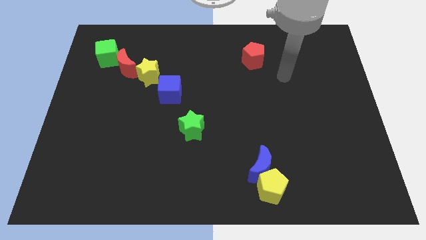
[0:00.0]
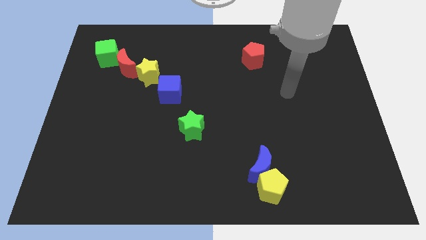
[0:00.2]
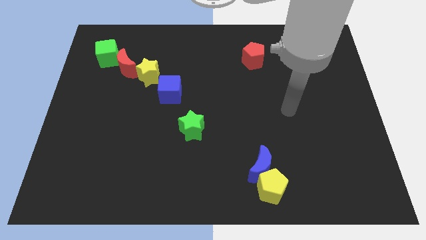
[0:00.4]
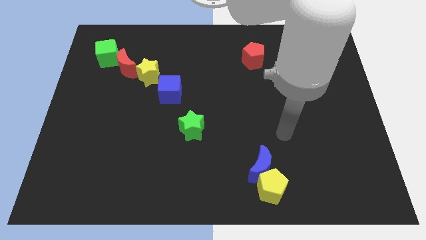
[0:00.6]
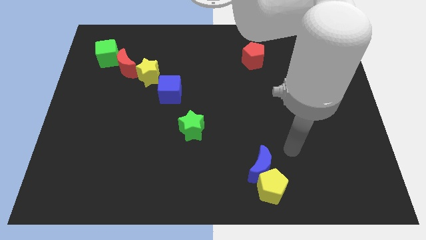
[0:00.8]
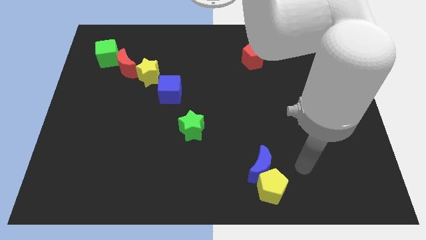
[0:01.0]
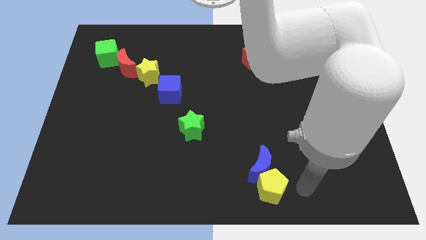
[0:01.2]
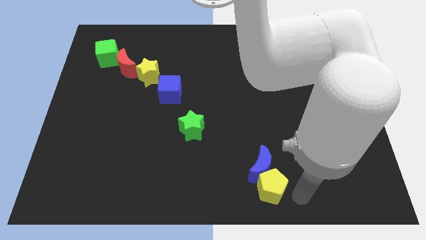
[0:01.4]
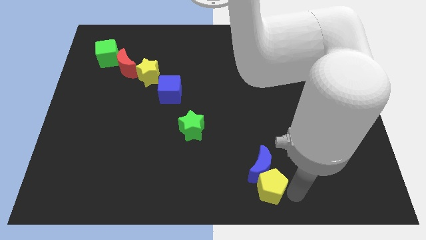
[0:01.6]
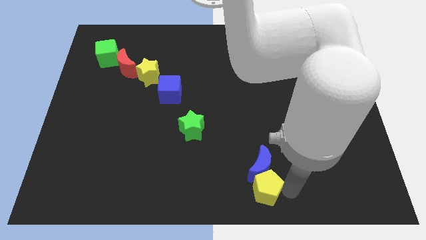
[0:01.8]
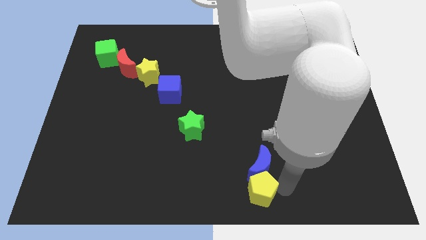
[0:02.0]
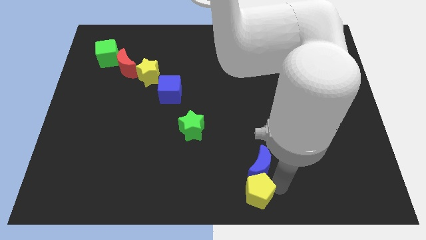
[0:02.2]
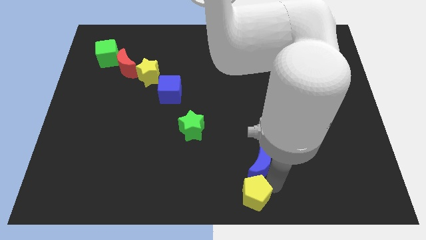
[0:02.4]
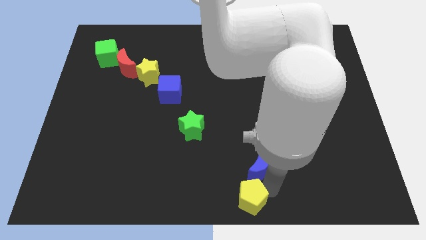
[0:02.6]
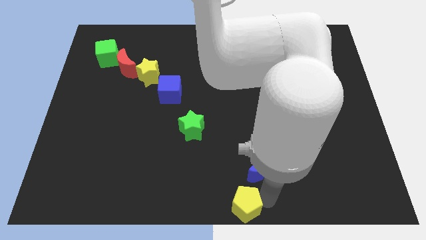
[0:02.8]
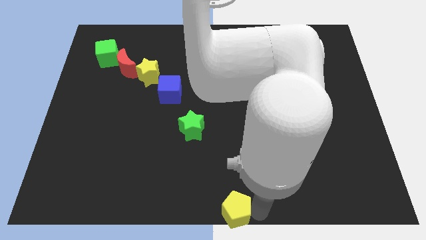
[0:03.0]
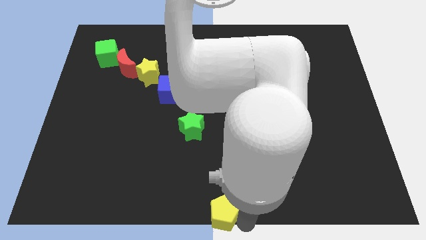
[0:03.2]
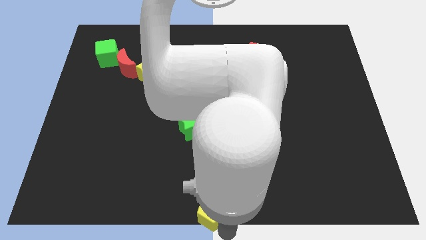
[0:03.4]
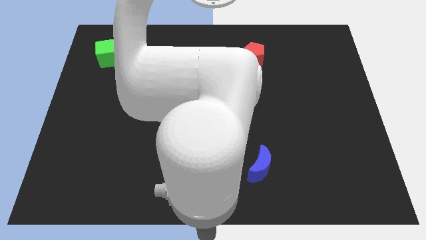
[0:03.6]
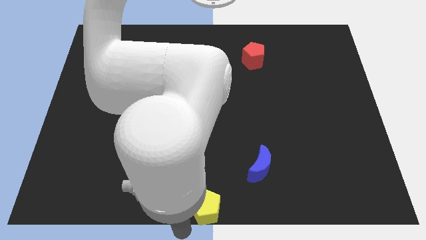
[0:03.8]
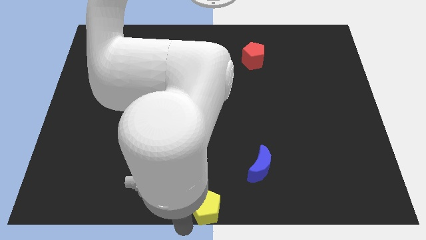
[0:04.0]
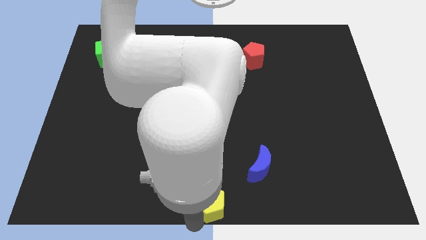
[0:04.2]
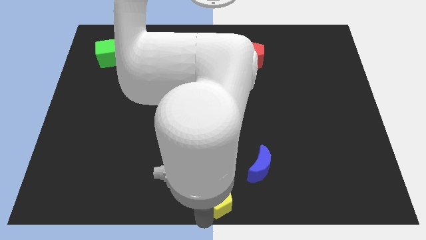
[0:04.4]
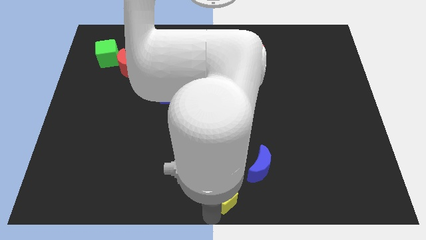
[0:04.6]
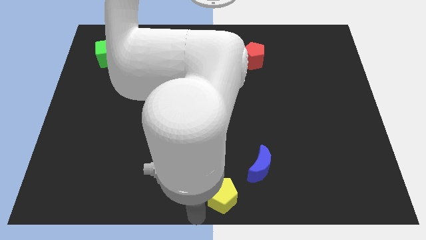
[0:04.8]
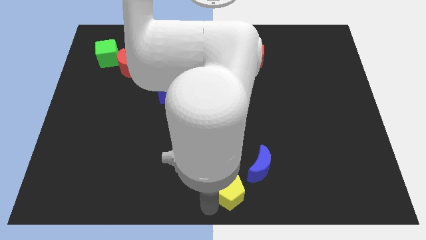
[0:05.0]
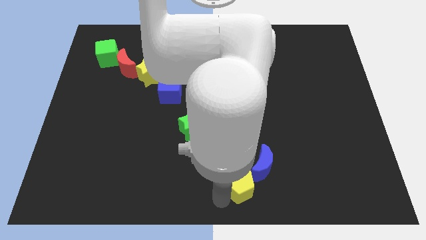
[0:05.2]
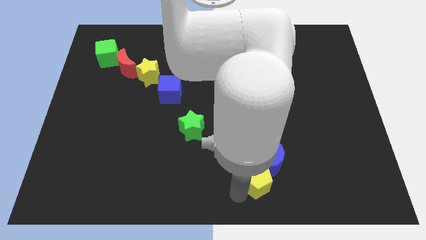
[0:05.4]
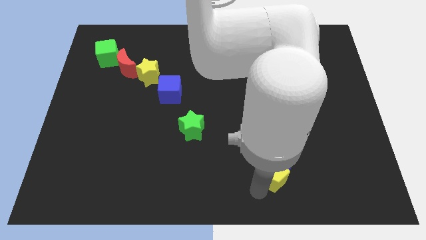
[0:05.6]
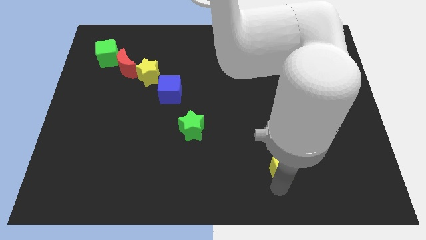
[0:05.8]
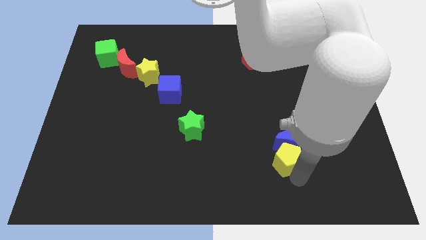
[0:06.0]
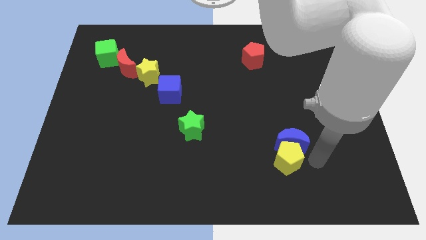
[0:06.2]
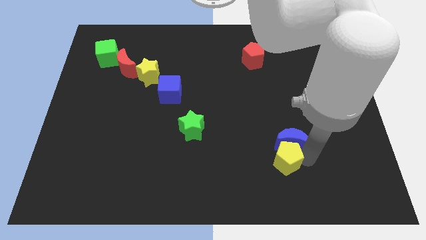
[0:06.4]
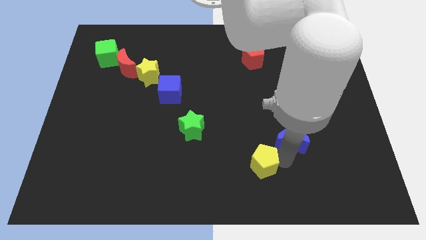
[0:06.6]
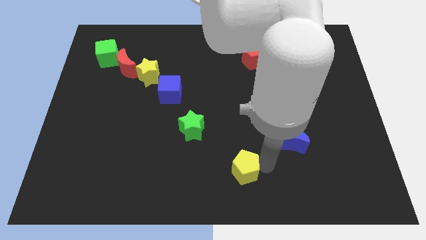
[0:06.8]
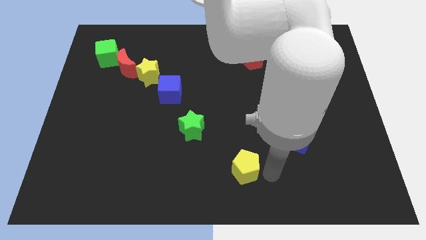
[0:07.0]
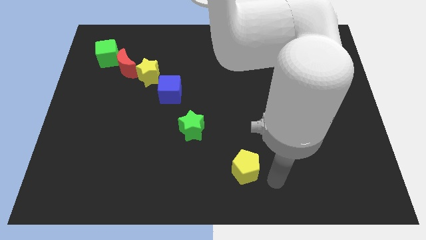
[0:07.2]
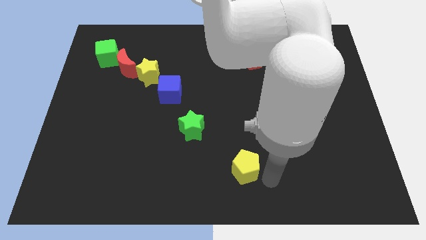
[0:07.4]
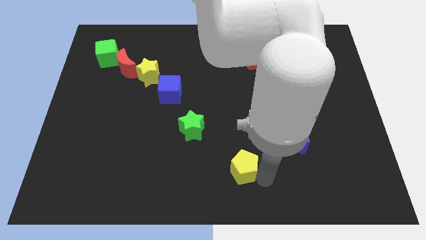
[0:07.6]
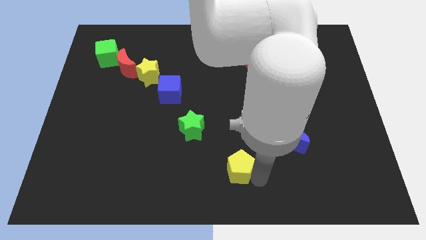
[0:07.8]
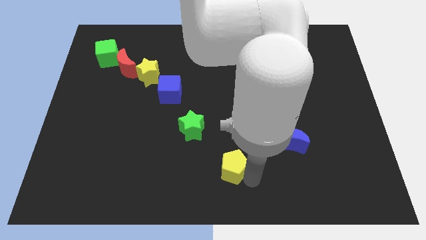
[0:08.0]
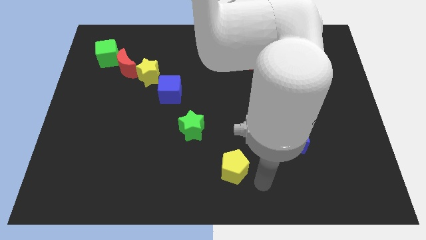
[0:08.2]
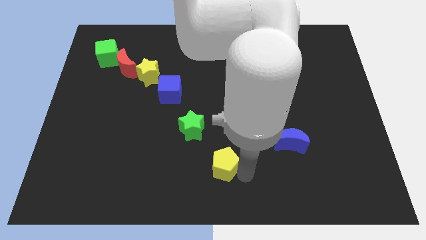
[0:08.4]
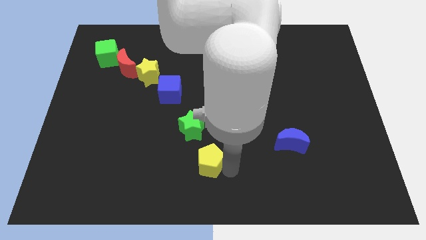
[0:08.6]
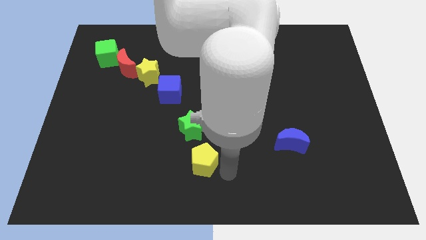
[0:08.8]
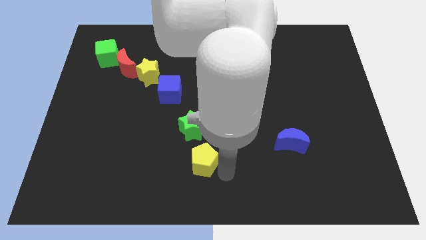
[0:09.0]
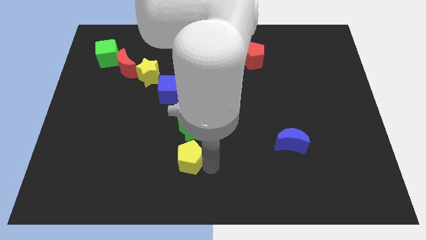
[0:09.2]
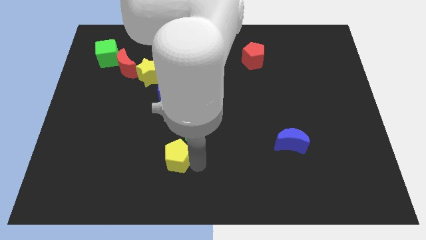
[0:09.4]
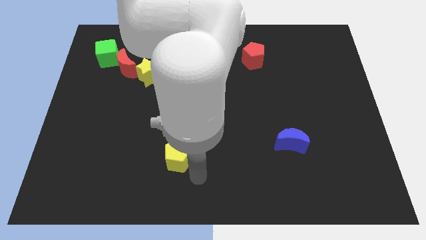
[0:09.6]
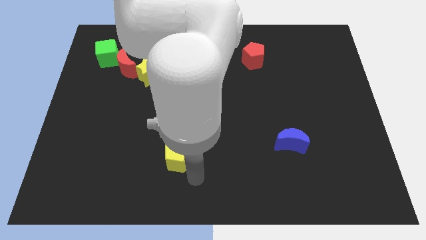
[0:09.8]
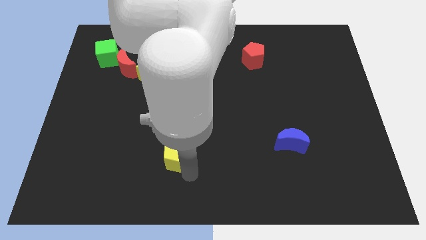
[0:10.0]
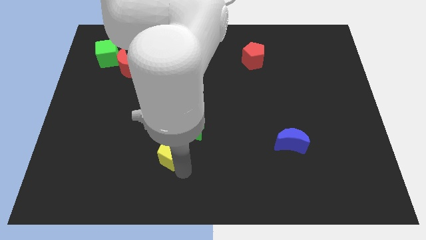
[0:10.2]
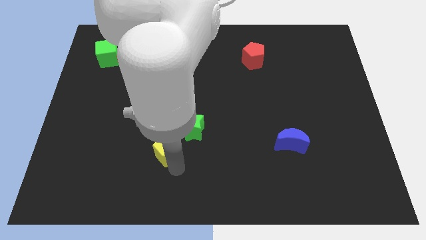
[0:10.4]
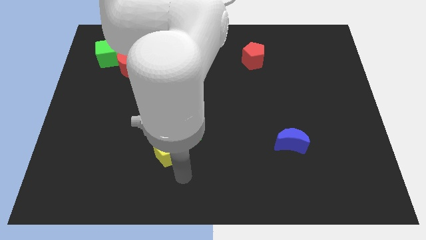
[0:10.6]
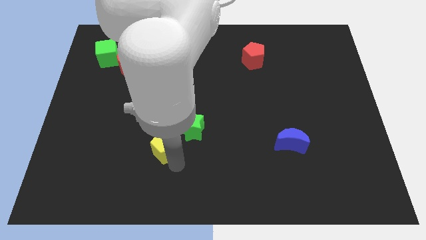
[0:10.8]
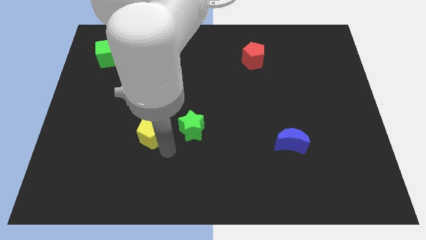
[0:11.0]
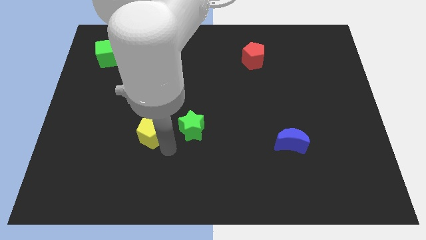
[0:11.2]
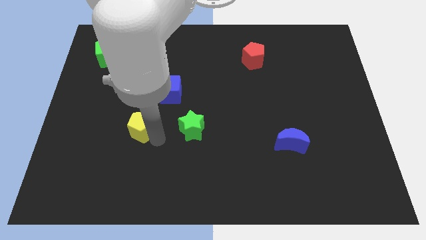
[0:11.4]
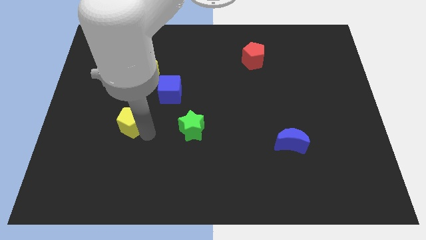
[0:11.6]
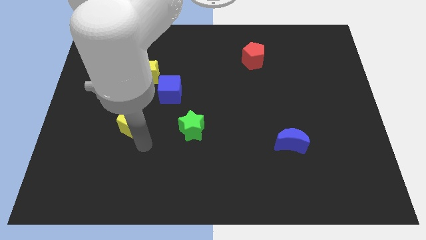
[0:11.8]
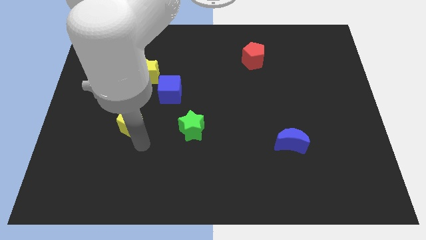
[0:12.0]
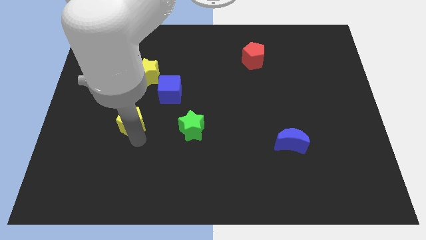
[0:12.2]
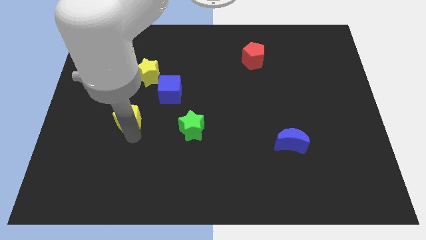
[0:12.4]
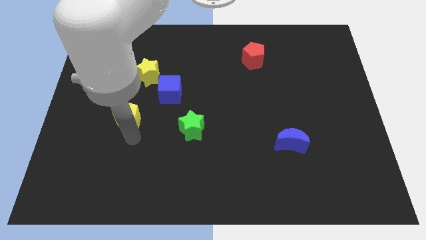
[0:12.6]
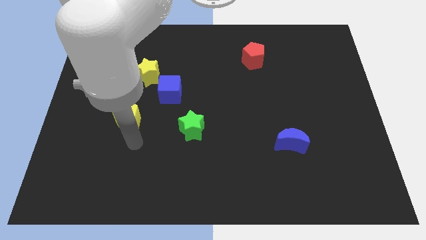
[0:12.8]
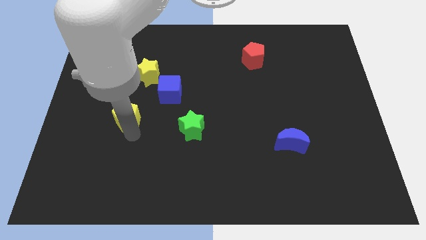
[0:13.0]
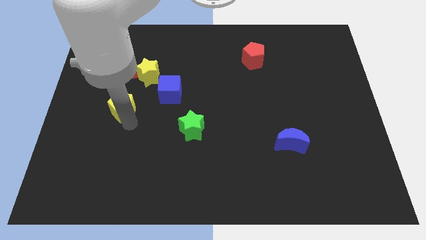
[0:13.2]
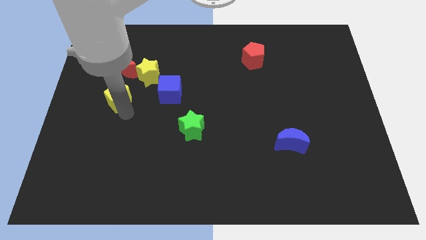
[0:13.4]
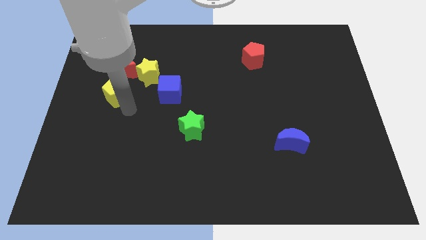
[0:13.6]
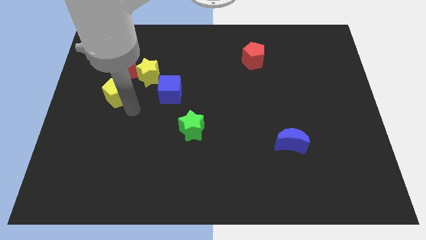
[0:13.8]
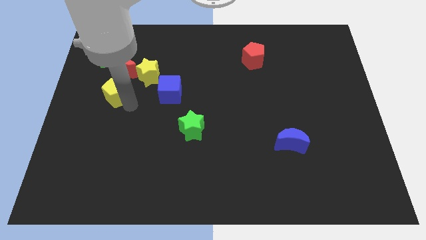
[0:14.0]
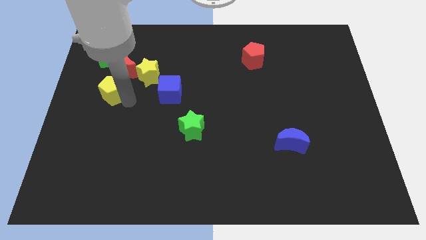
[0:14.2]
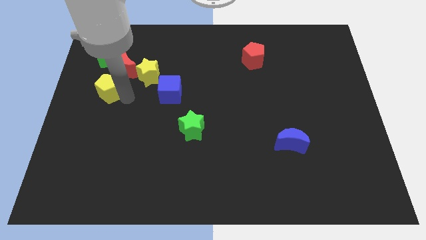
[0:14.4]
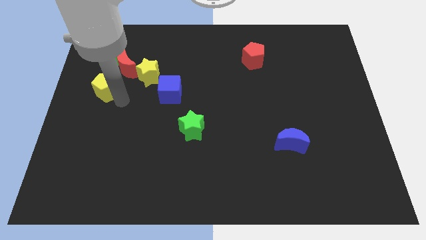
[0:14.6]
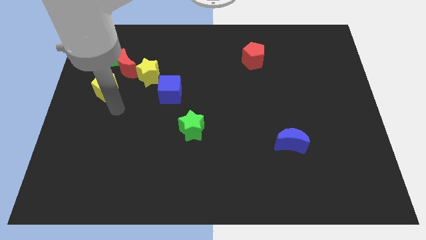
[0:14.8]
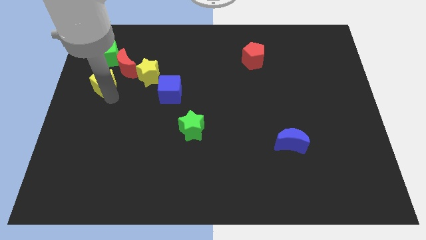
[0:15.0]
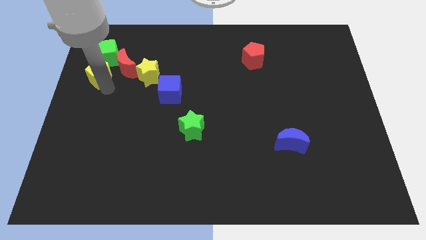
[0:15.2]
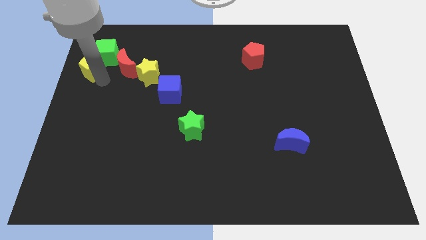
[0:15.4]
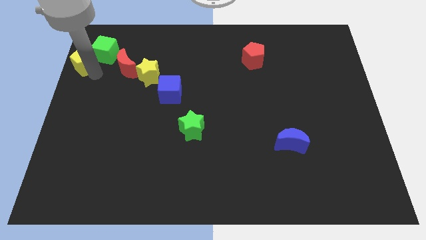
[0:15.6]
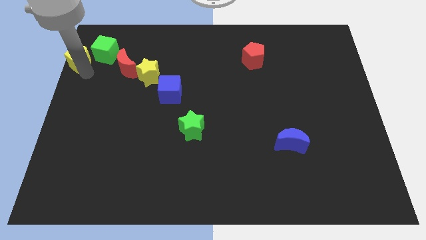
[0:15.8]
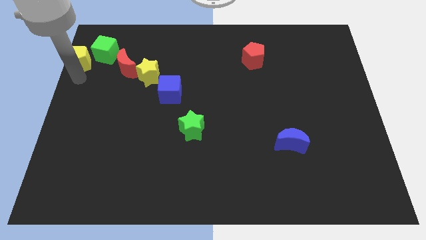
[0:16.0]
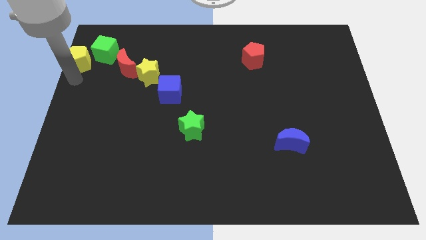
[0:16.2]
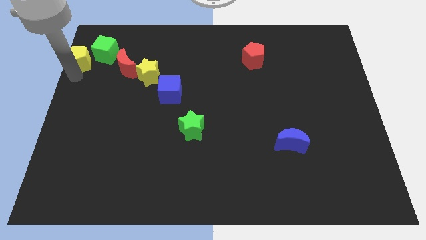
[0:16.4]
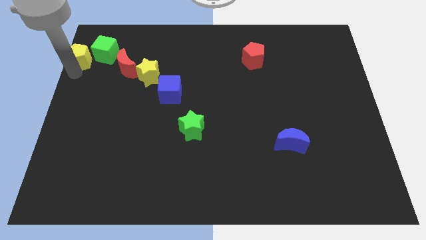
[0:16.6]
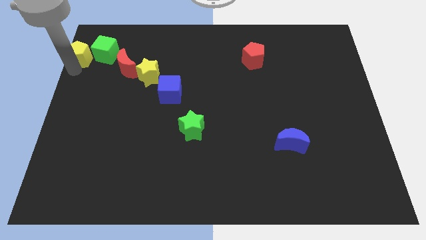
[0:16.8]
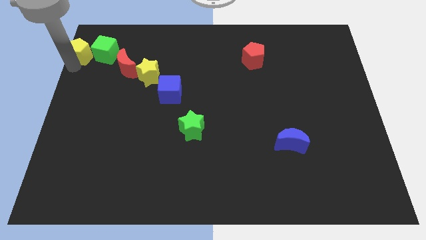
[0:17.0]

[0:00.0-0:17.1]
slide the yellow pentagon to the top left of the board
